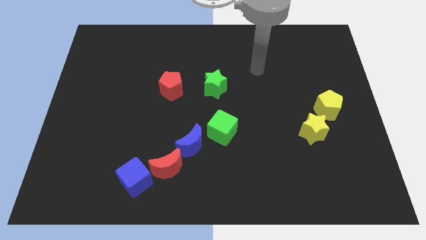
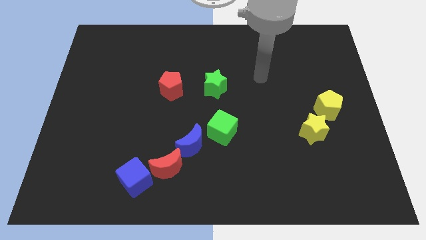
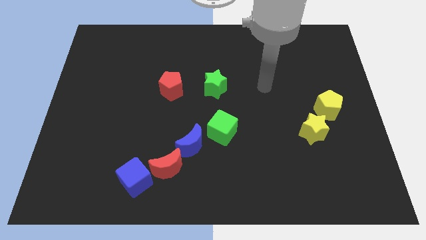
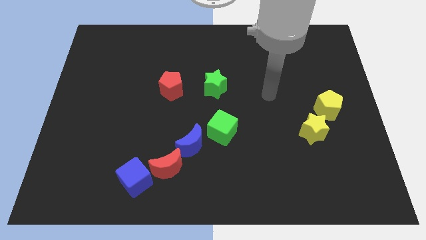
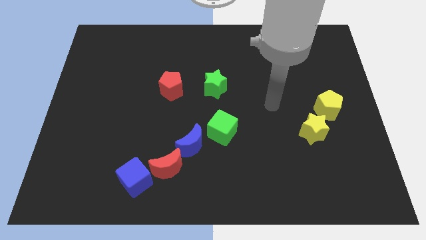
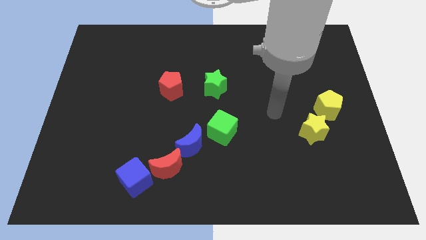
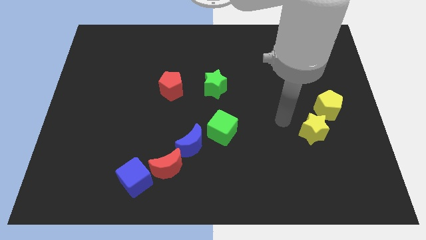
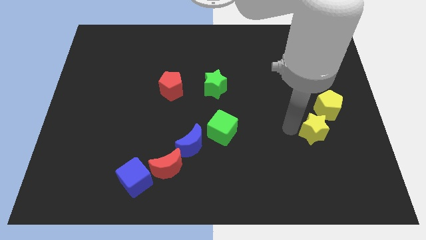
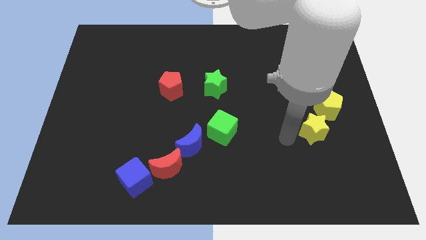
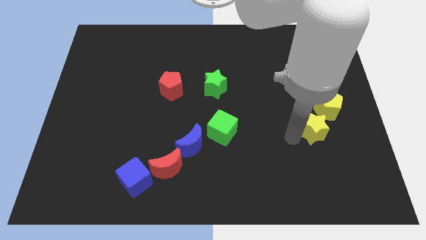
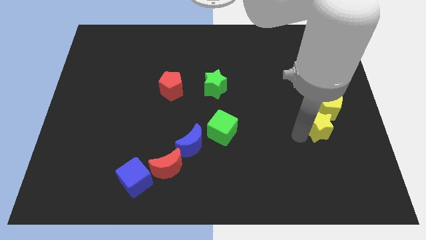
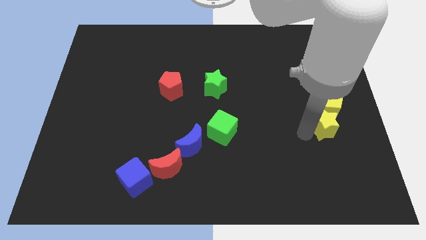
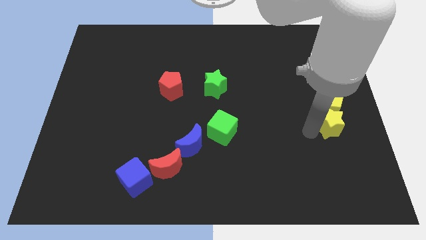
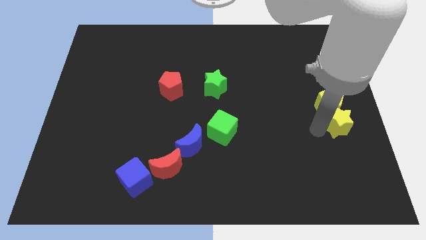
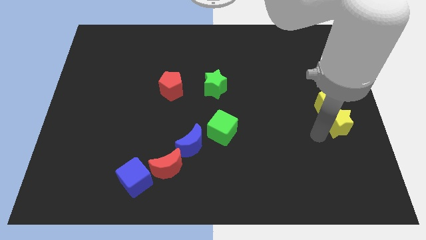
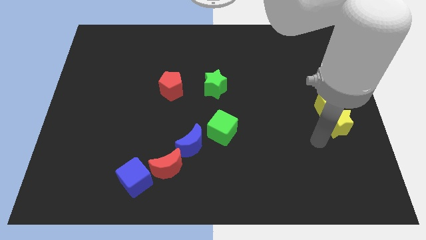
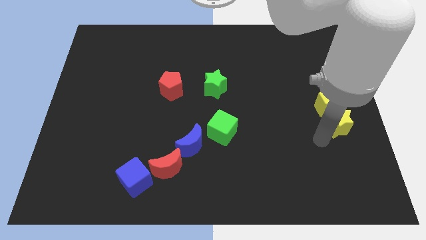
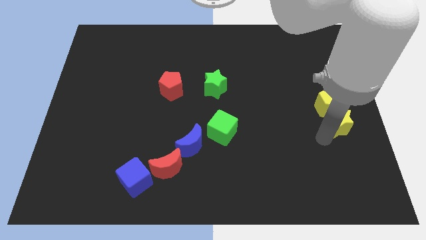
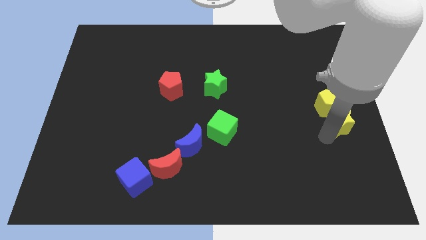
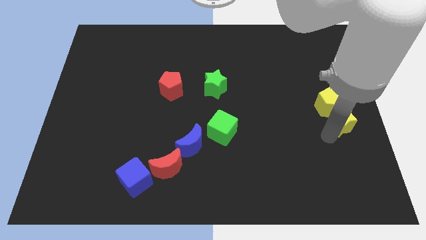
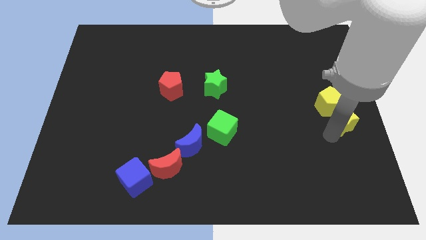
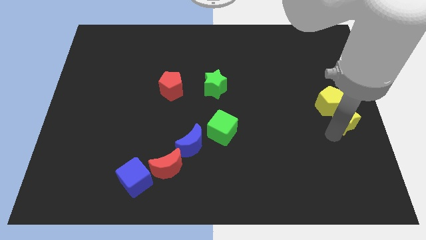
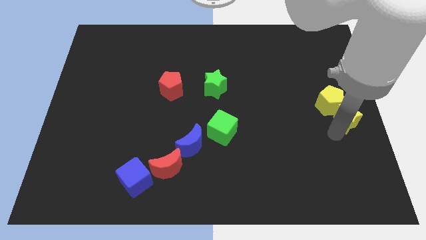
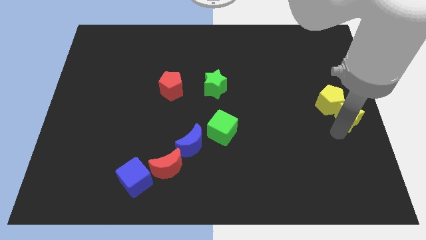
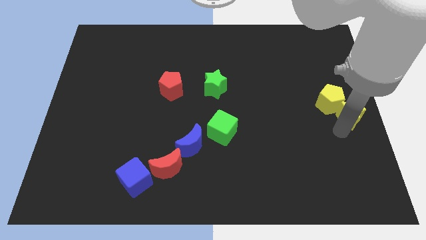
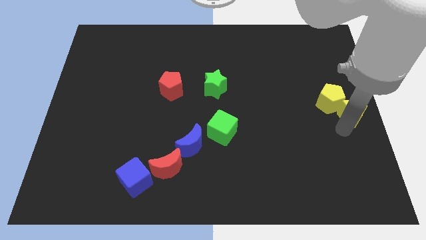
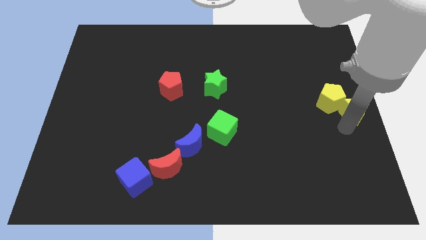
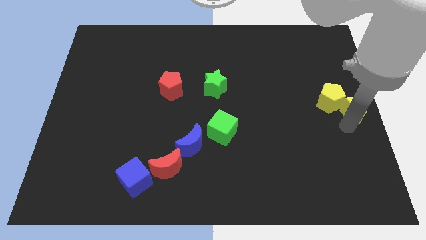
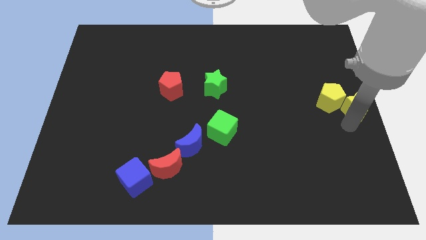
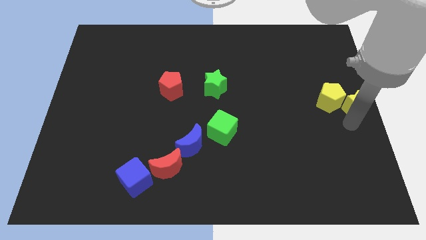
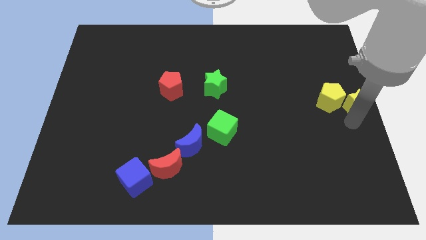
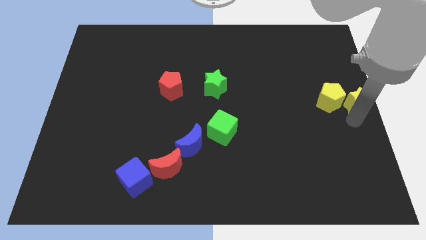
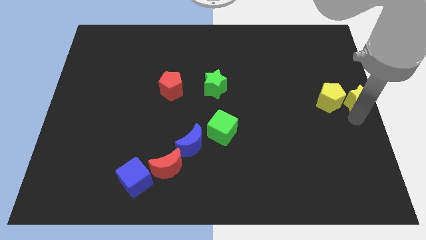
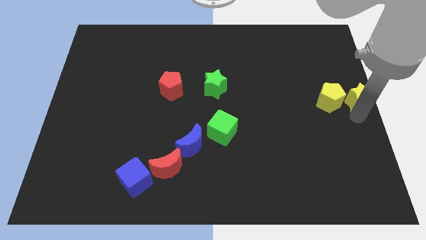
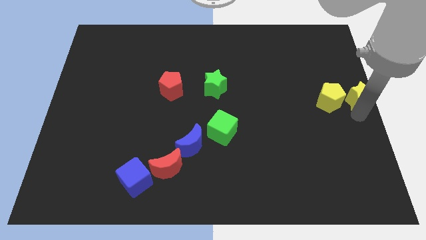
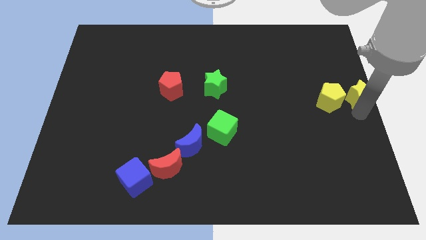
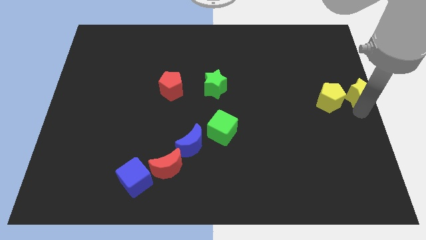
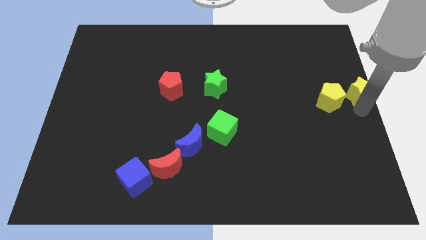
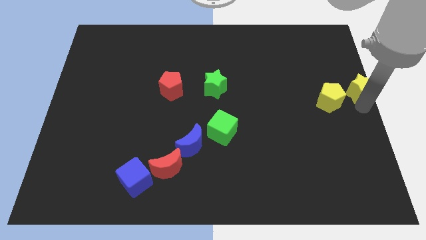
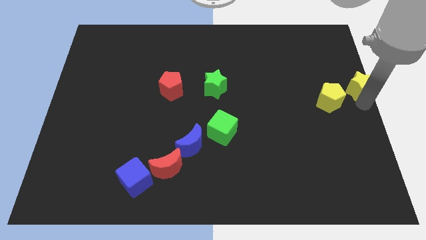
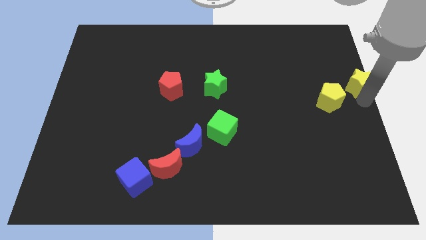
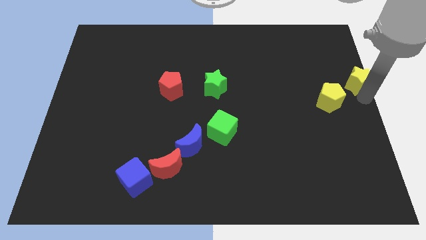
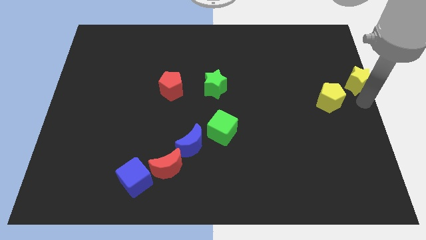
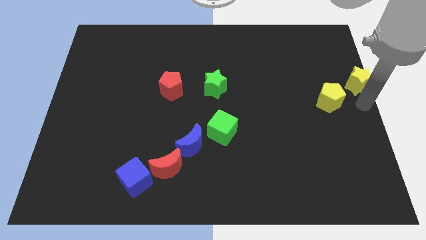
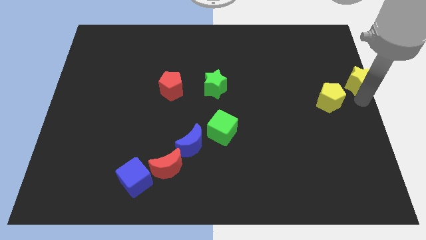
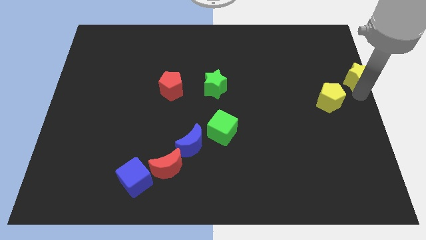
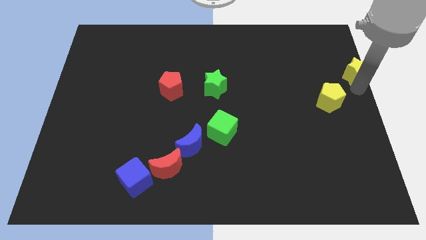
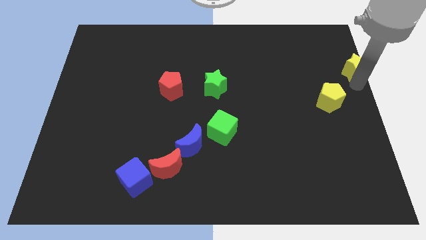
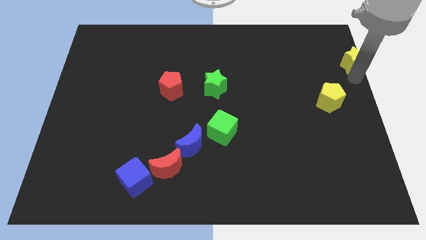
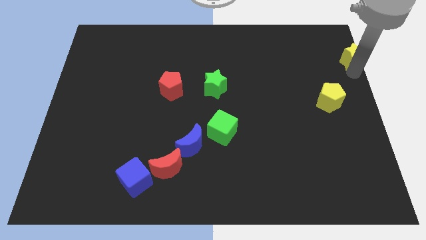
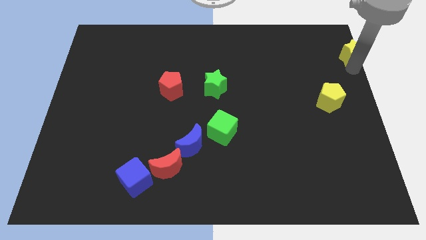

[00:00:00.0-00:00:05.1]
move the yellow star to the top right

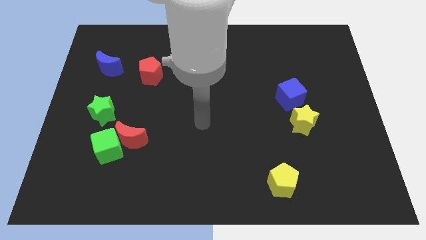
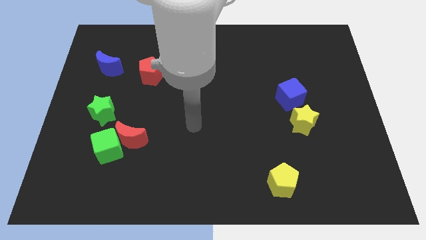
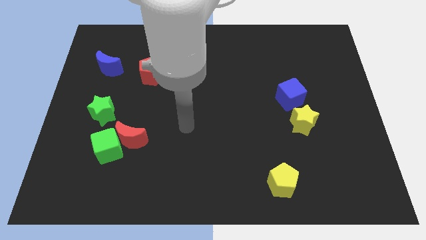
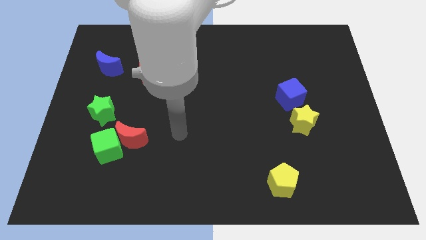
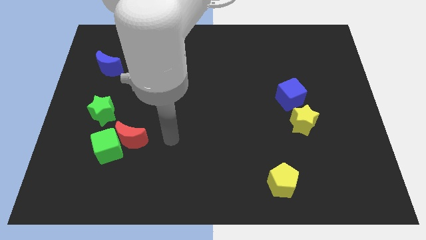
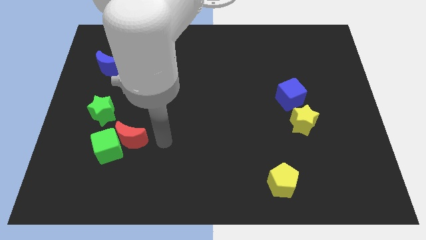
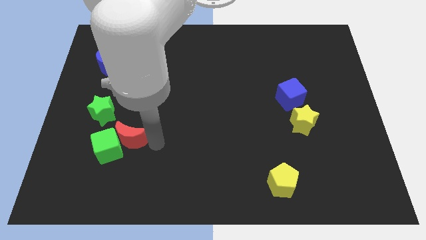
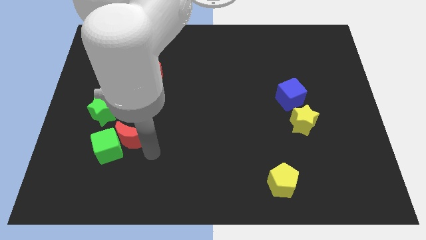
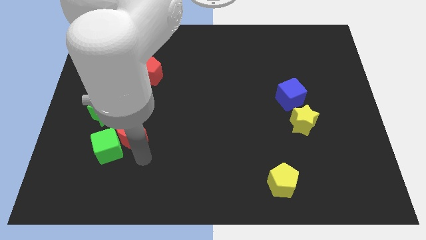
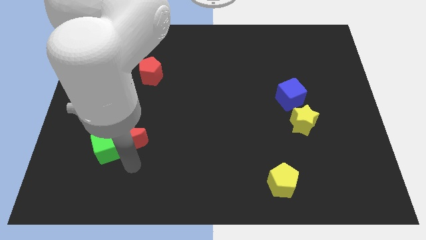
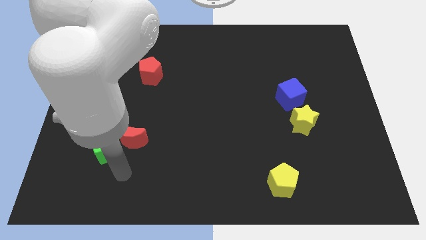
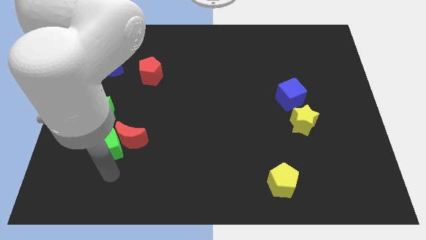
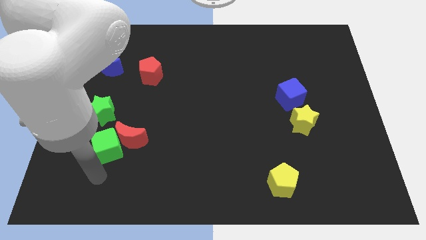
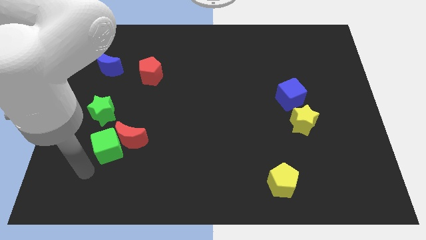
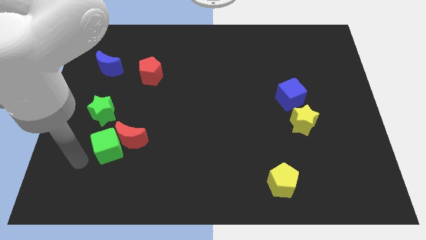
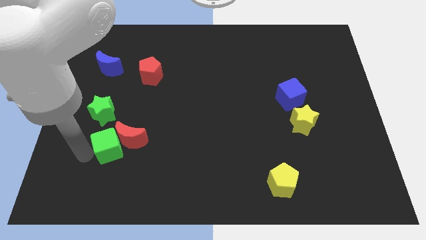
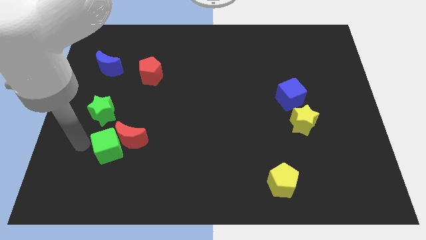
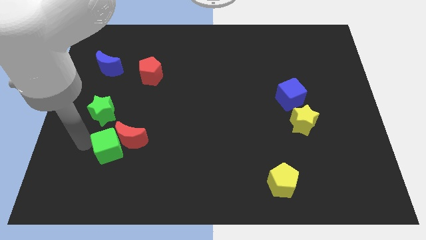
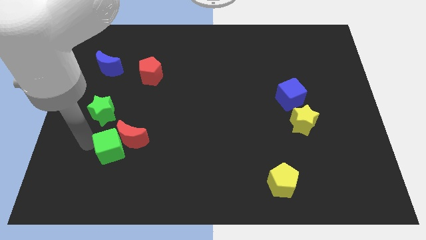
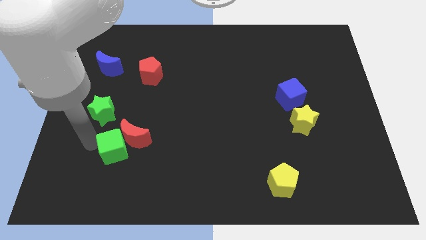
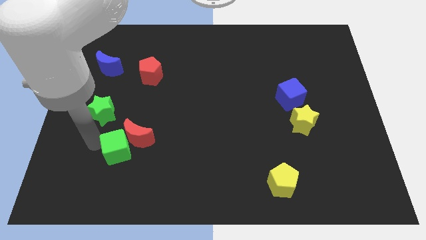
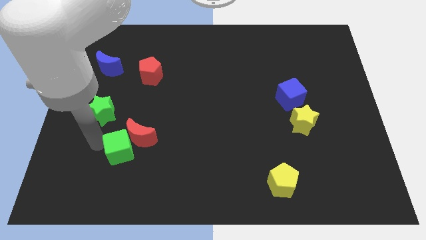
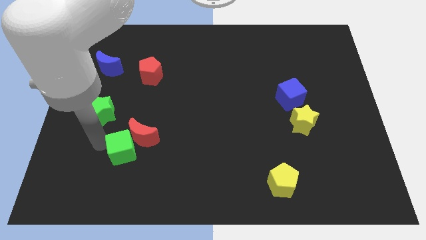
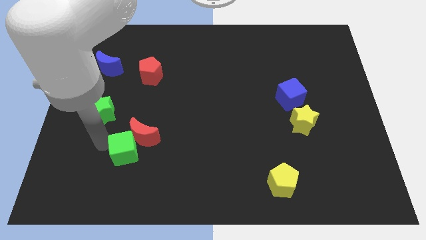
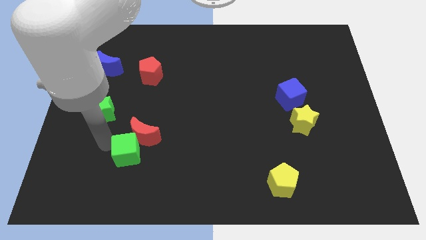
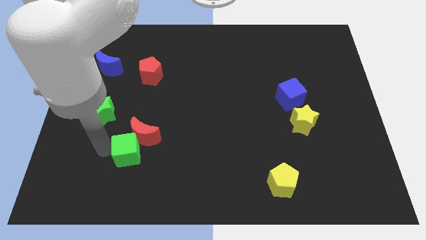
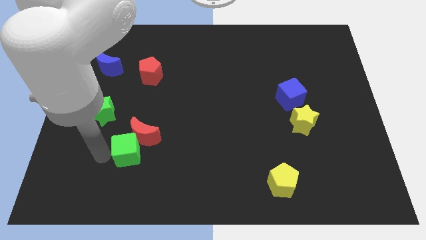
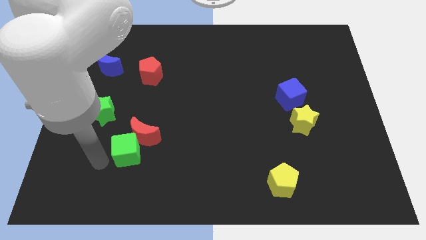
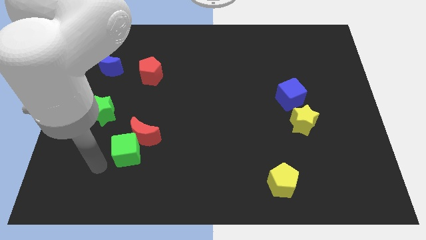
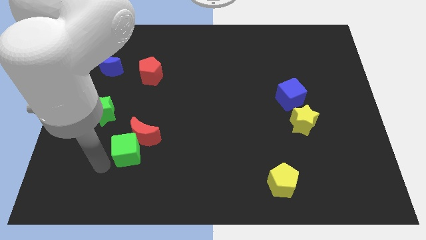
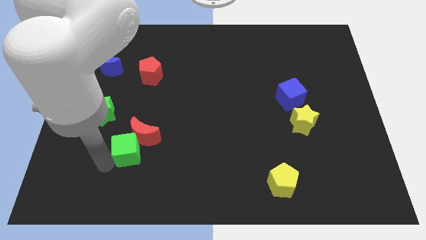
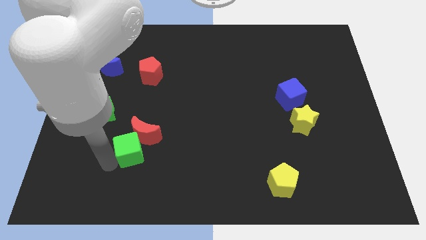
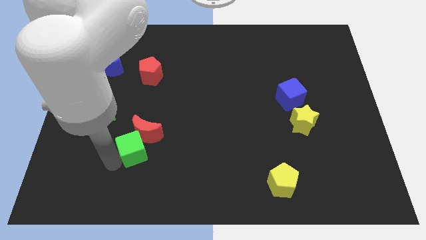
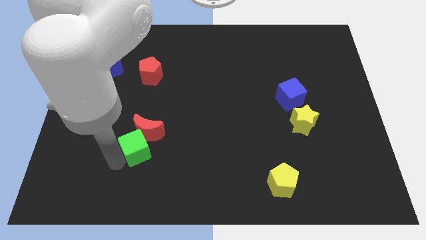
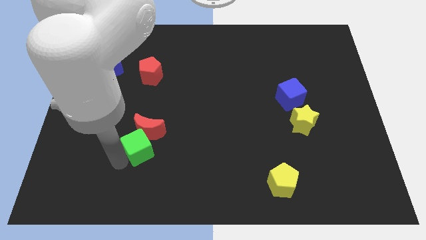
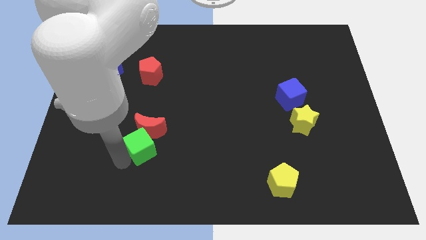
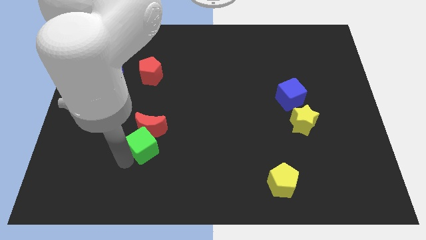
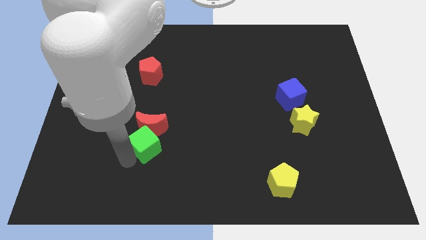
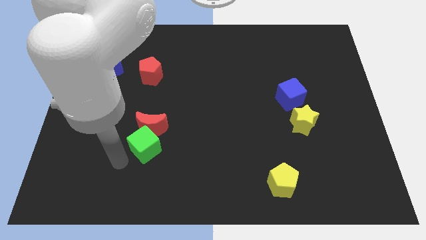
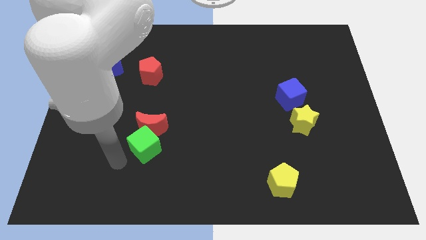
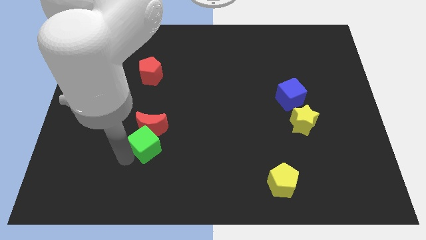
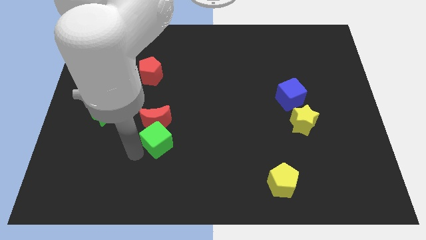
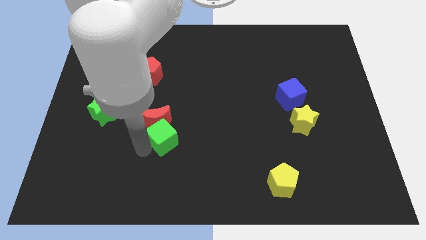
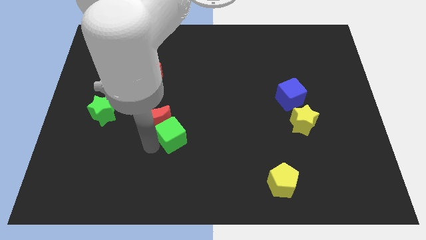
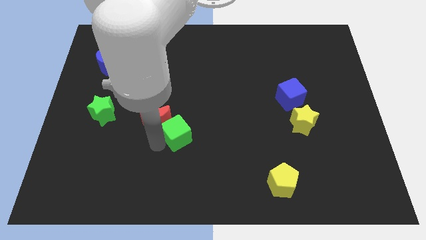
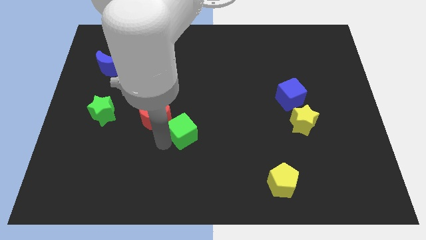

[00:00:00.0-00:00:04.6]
slide the green cube to the middle
